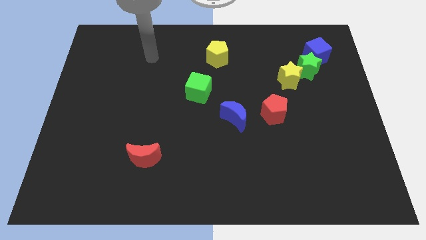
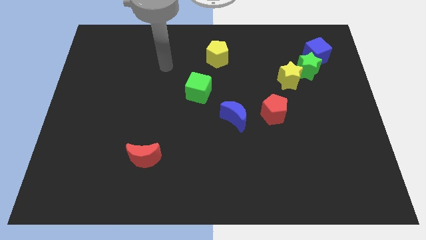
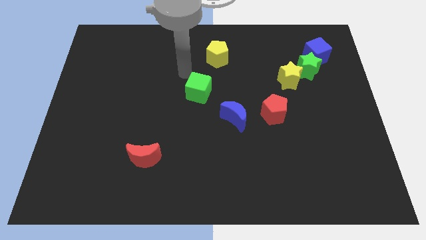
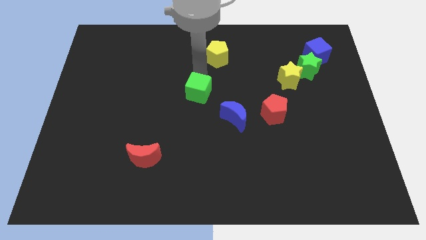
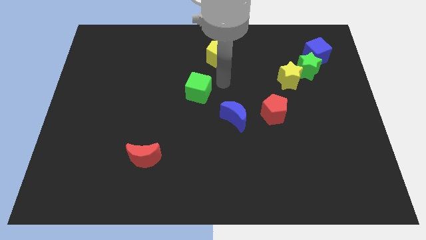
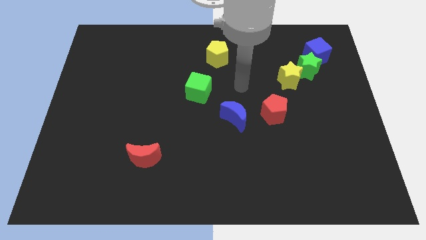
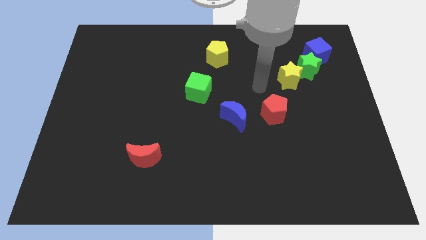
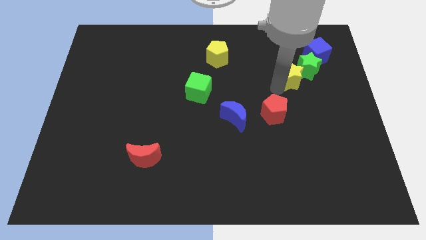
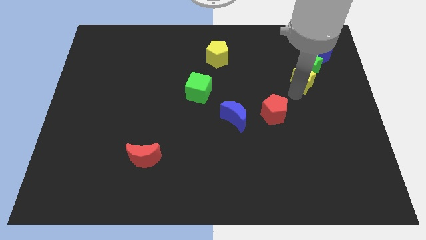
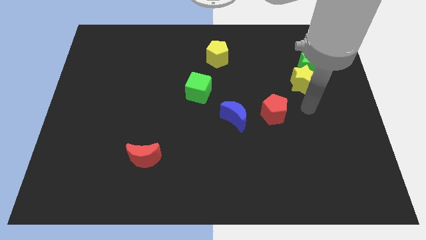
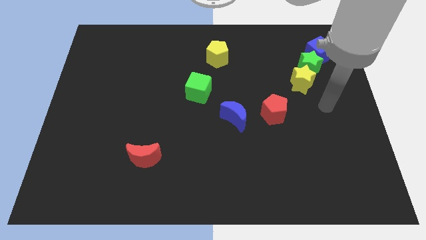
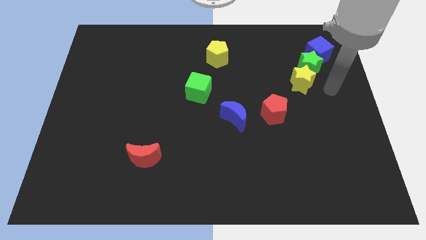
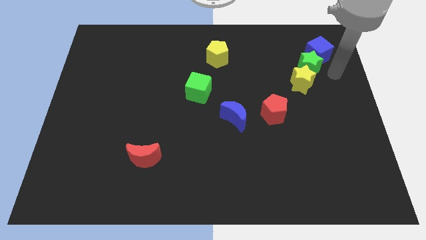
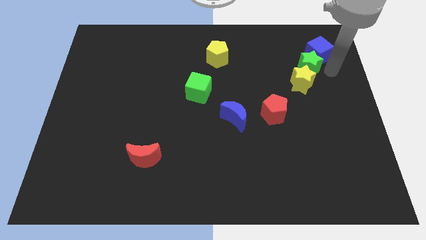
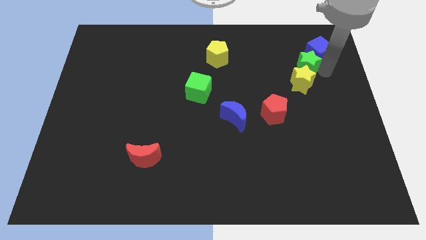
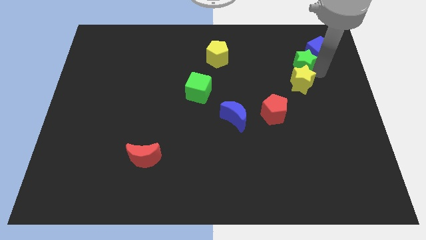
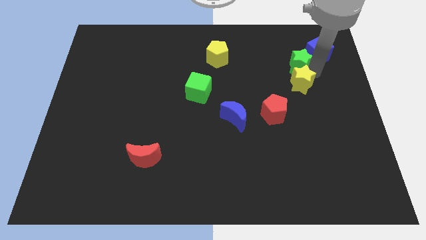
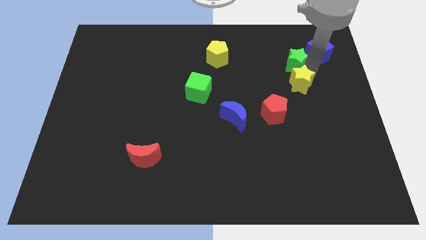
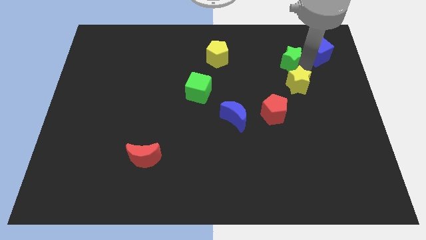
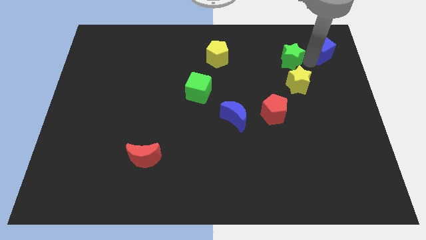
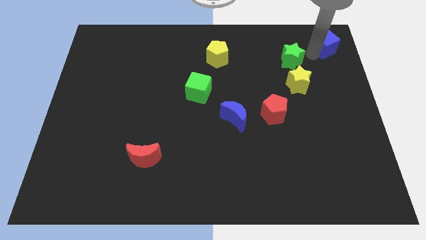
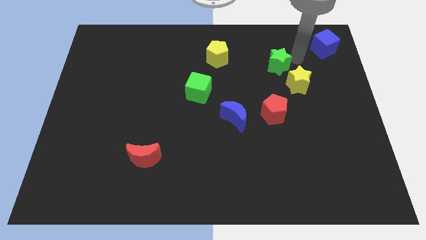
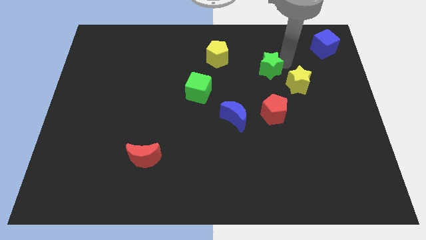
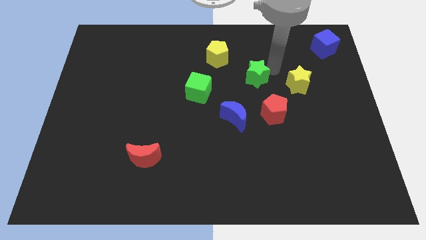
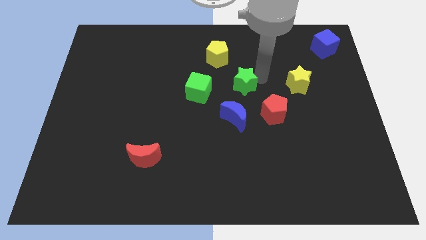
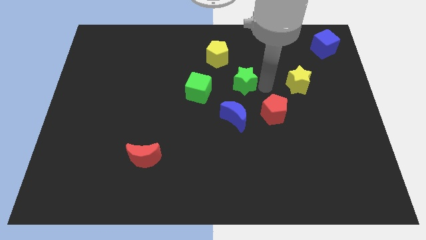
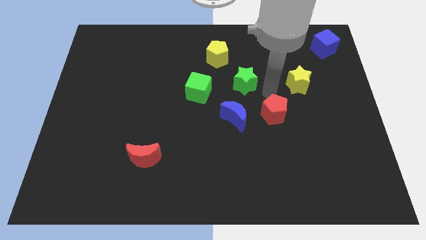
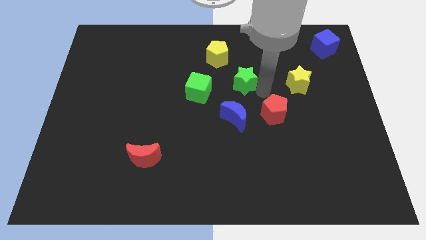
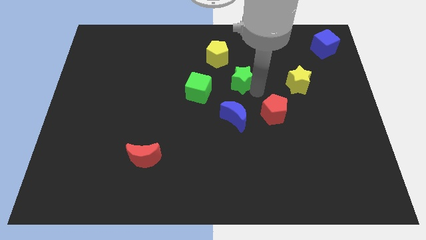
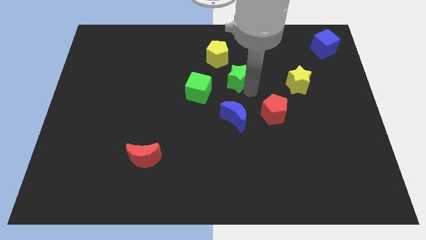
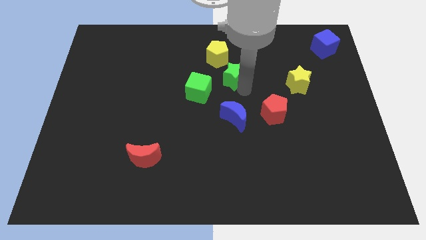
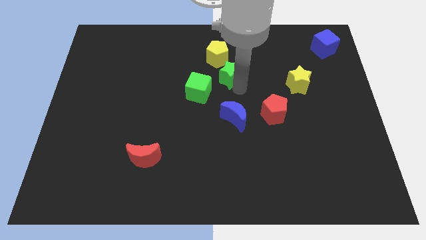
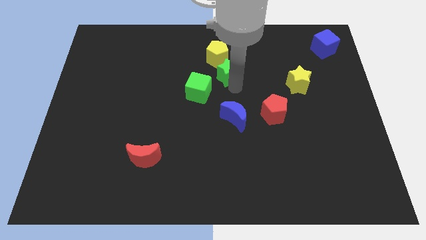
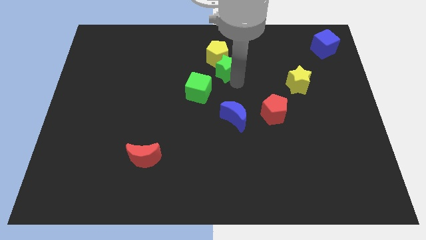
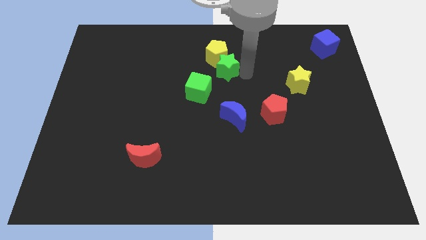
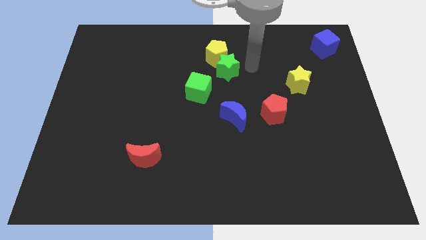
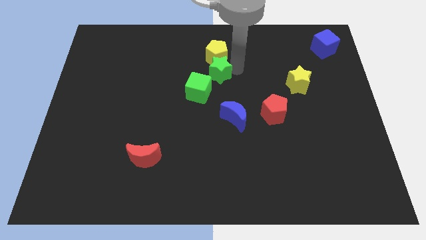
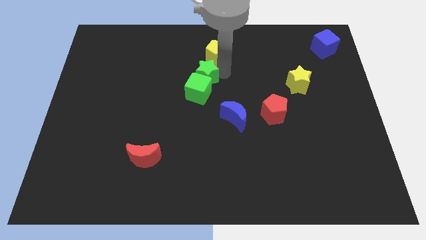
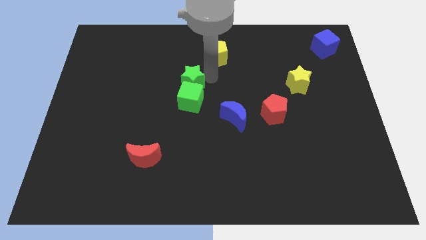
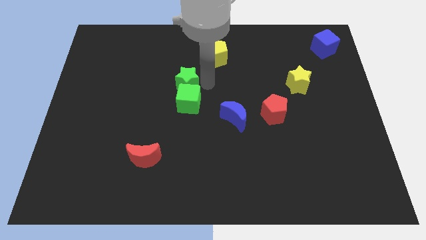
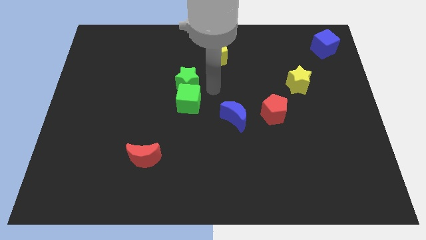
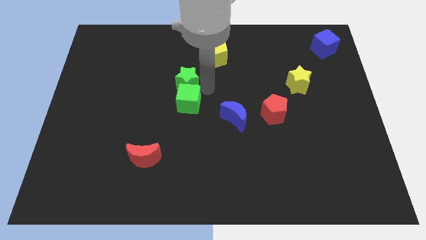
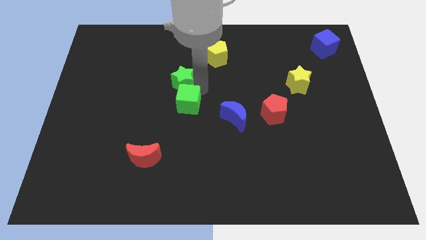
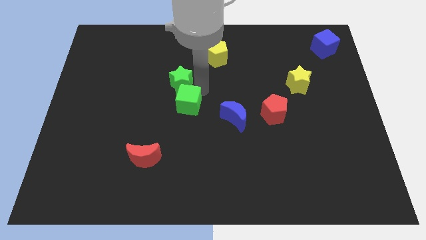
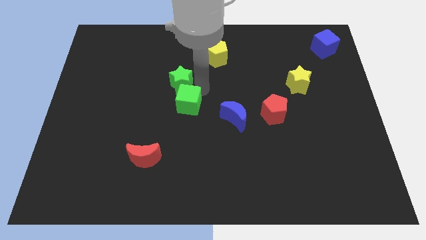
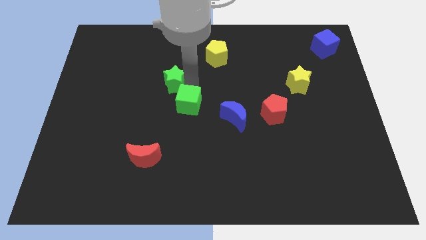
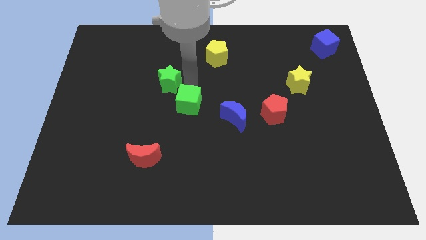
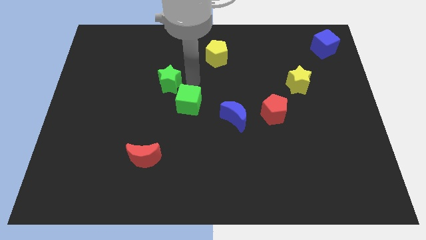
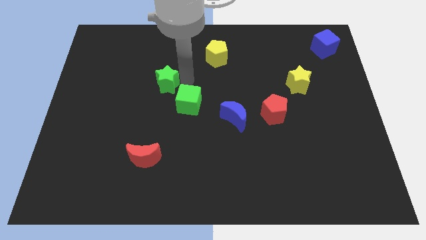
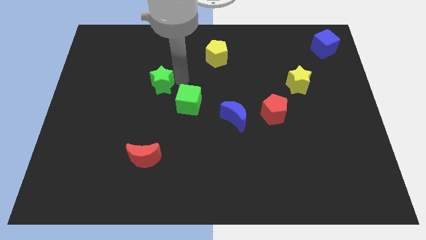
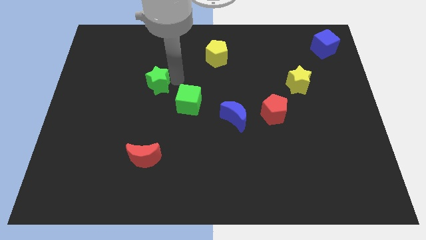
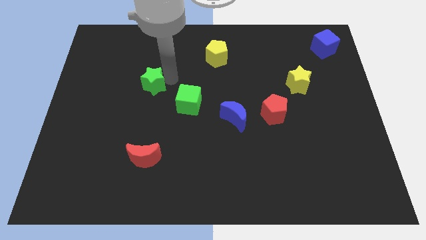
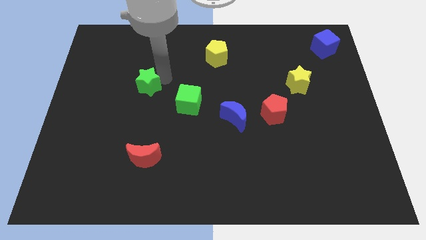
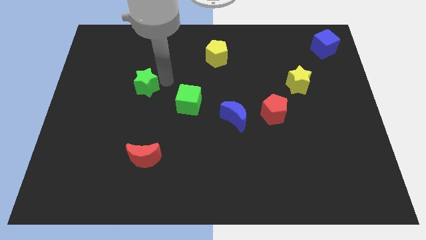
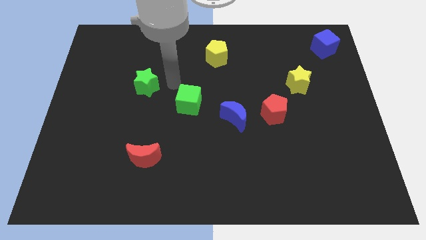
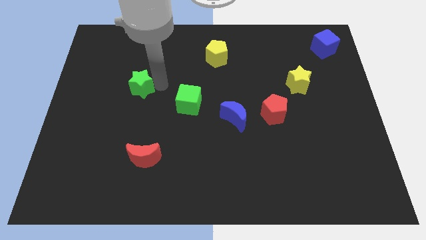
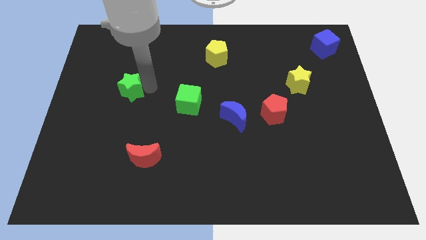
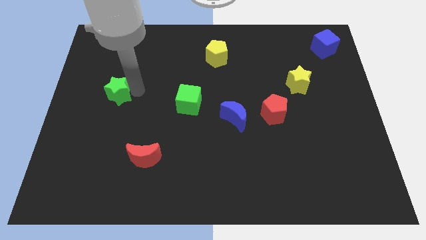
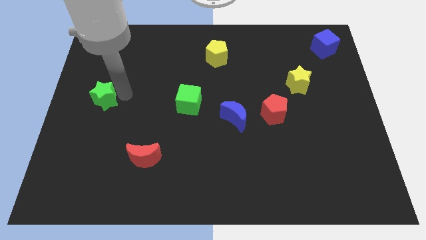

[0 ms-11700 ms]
slide the green star to the left side

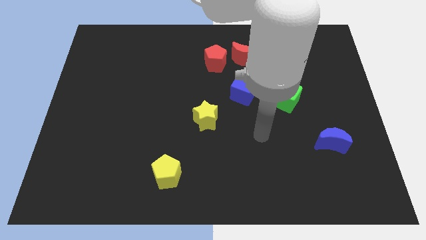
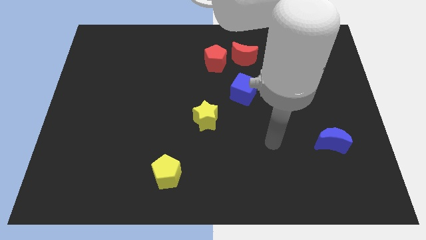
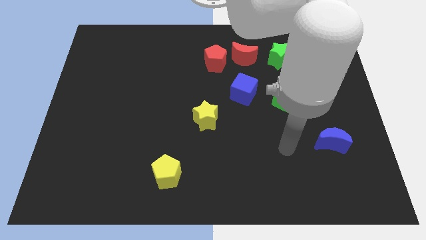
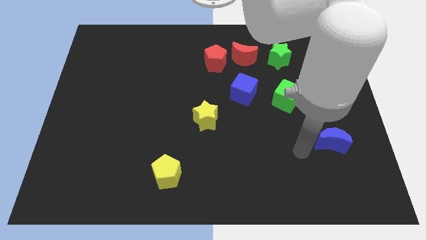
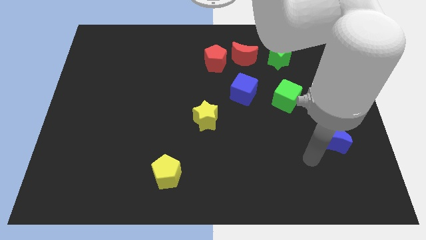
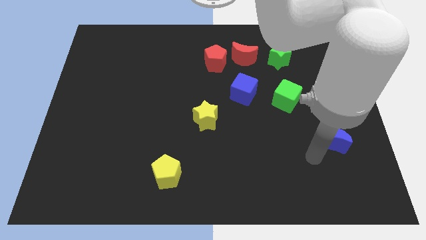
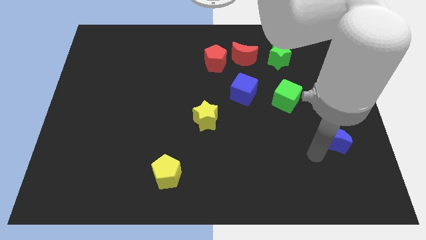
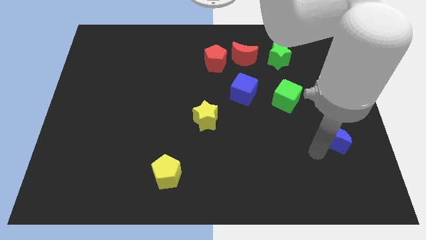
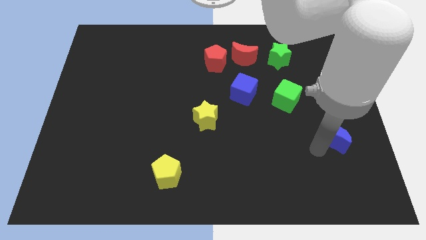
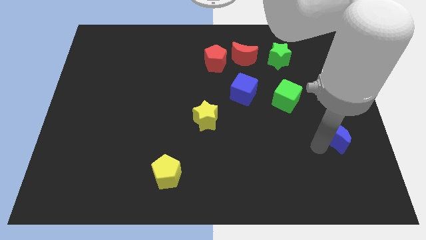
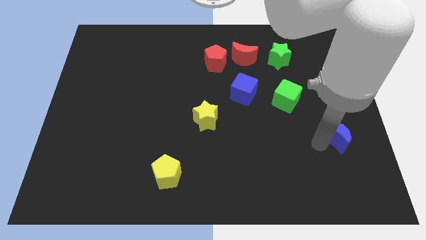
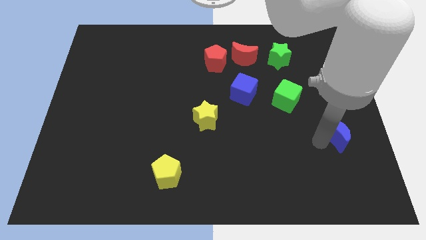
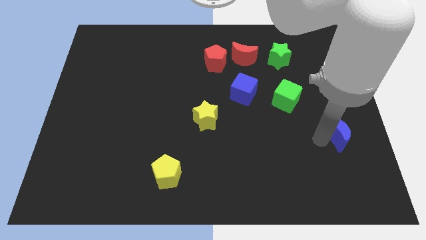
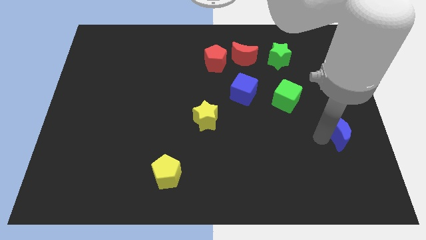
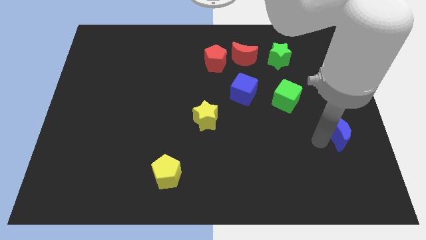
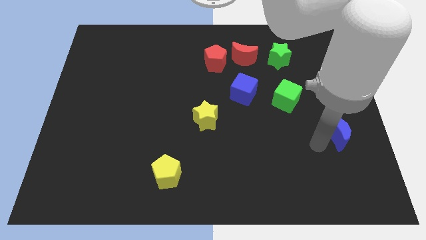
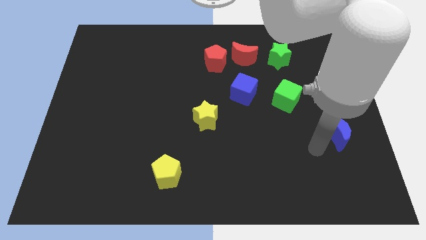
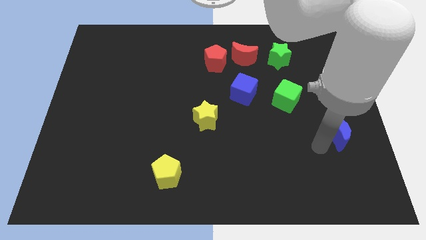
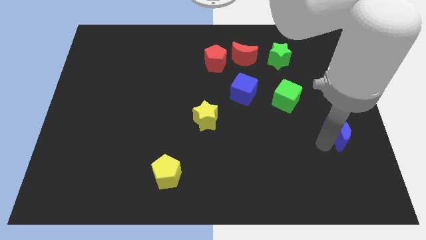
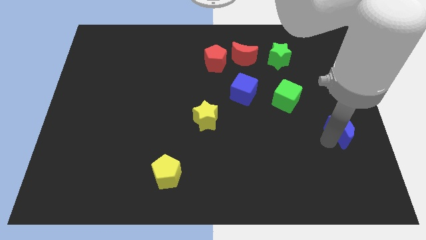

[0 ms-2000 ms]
push the blue moon to the center right
